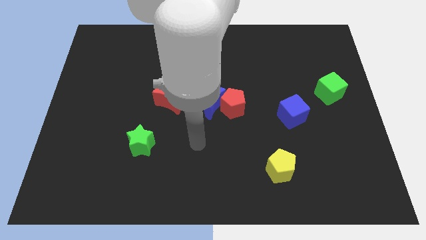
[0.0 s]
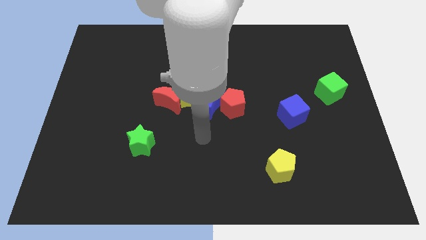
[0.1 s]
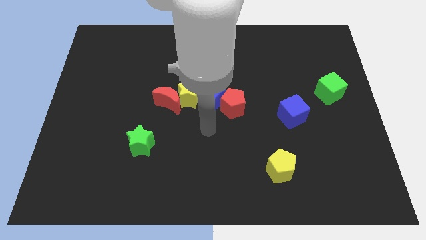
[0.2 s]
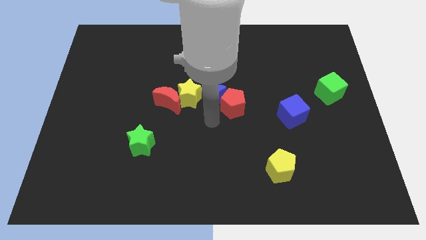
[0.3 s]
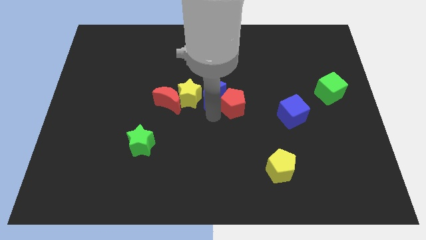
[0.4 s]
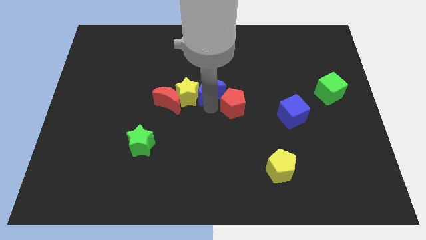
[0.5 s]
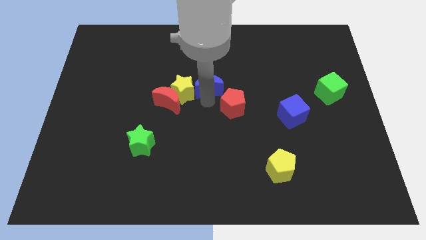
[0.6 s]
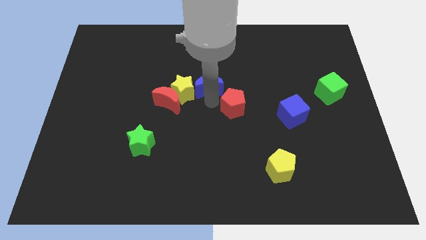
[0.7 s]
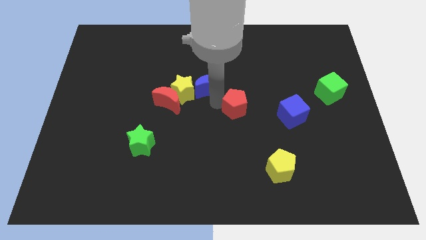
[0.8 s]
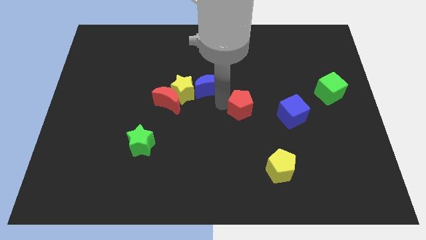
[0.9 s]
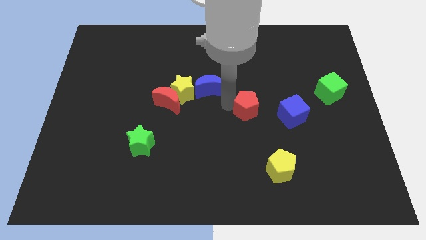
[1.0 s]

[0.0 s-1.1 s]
pull the red pentagon apart from the blue moon

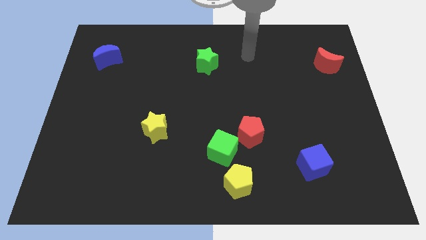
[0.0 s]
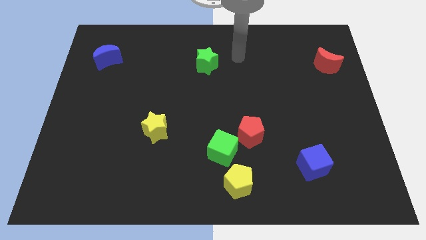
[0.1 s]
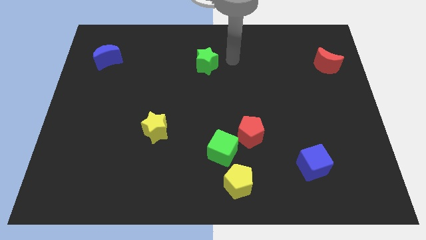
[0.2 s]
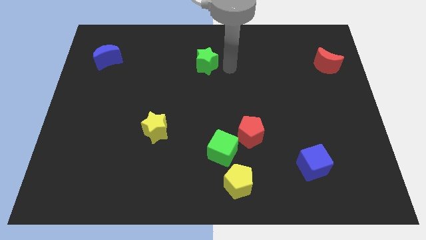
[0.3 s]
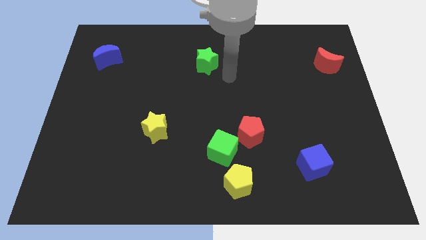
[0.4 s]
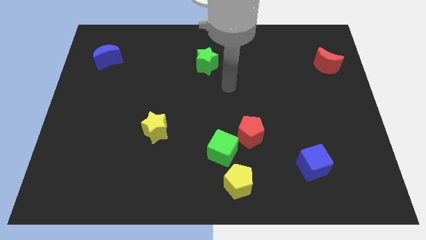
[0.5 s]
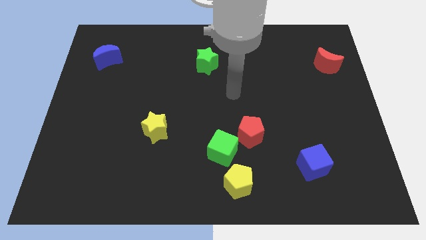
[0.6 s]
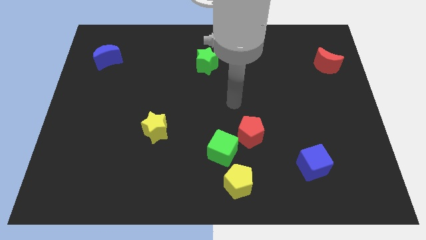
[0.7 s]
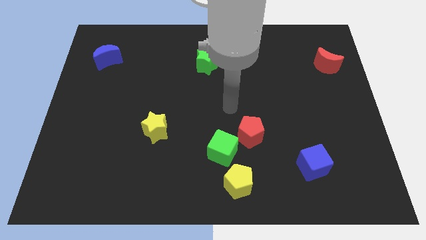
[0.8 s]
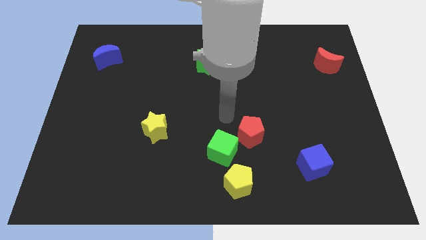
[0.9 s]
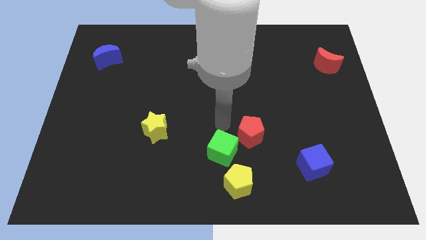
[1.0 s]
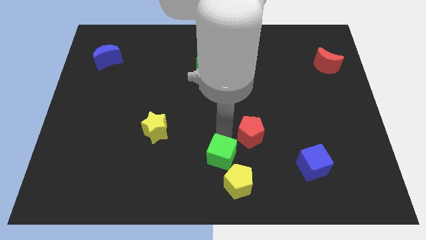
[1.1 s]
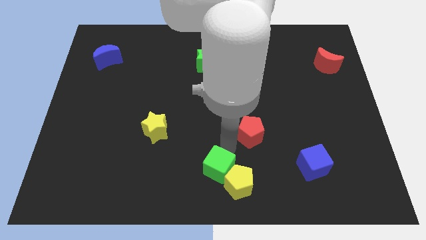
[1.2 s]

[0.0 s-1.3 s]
pull the red pentagon apart from the green cube

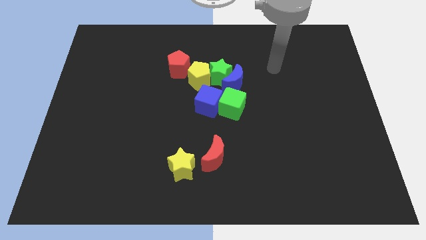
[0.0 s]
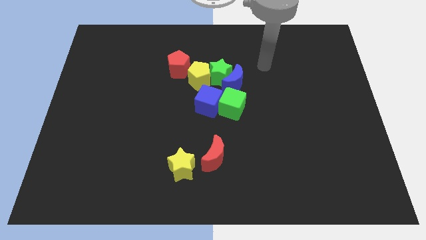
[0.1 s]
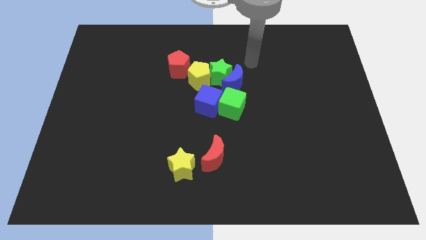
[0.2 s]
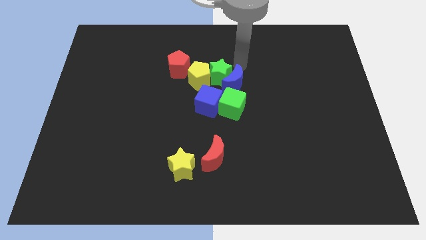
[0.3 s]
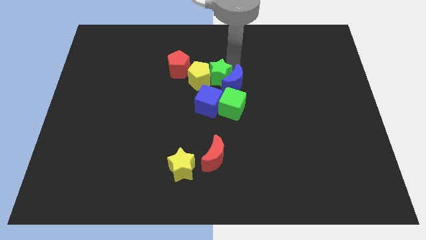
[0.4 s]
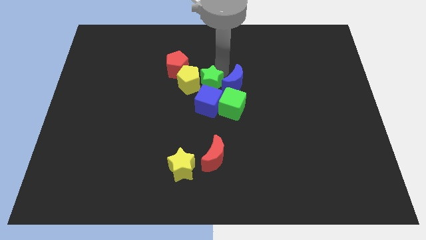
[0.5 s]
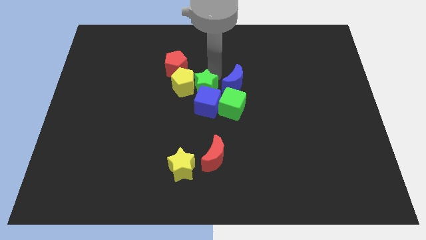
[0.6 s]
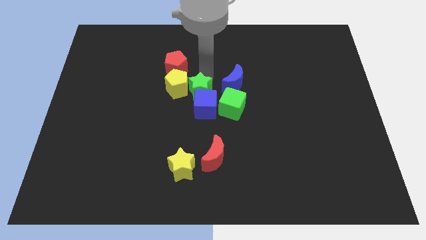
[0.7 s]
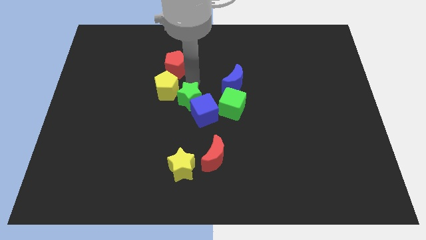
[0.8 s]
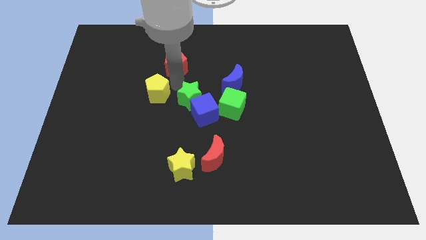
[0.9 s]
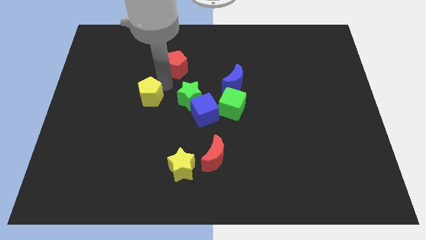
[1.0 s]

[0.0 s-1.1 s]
pull the red pentagon apart from the yellow pentagon

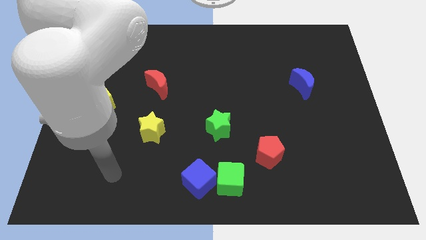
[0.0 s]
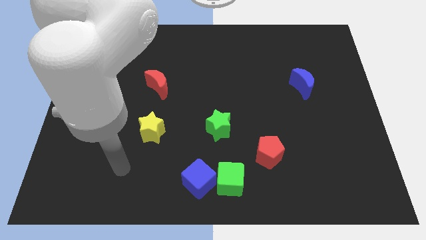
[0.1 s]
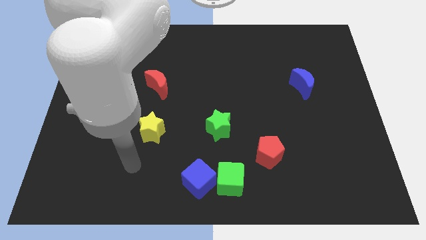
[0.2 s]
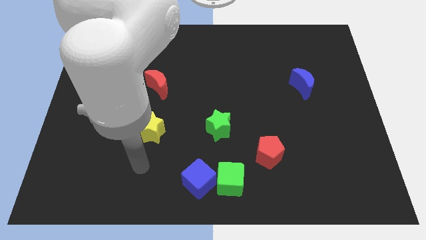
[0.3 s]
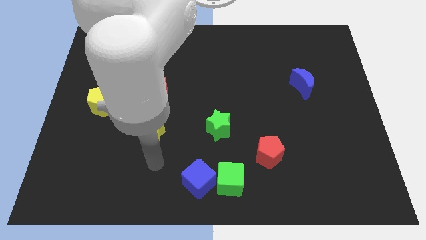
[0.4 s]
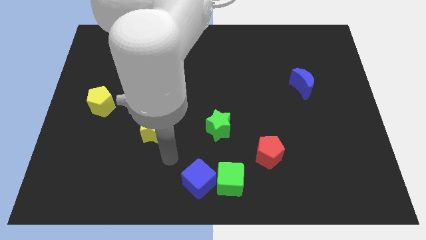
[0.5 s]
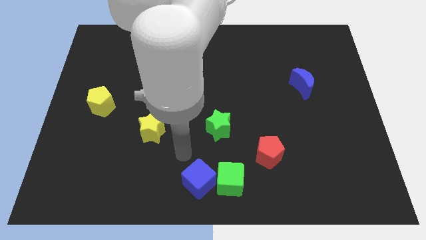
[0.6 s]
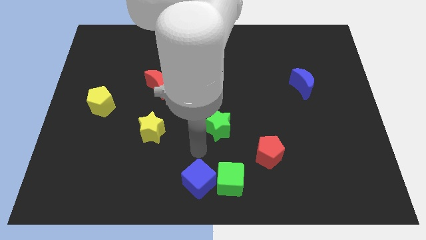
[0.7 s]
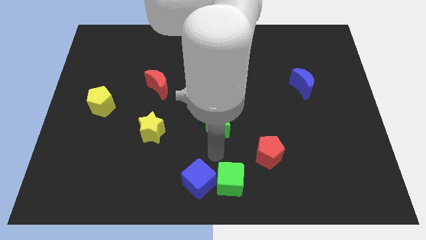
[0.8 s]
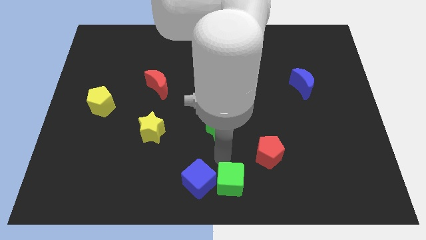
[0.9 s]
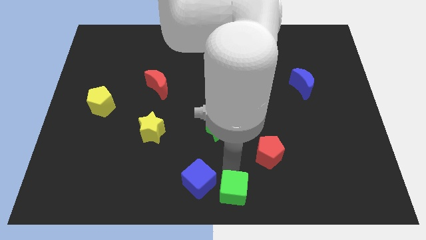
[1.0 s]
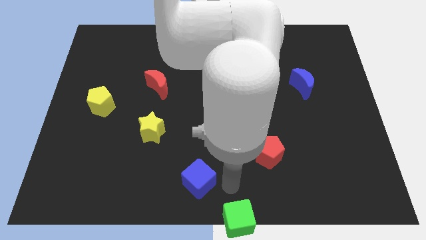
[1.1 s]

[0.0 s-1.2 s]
separate the blue cube from the green cube

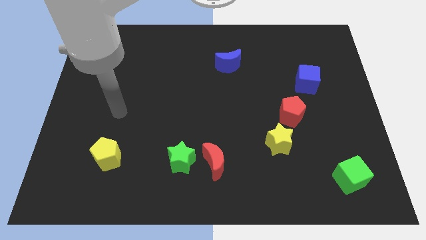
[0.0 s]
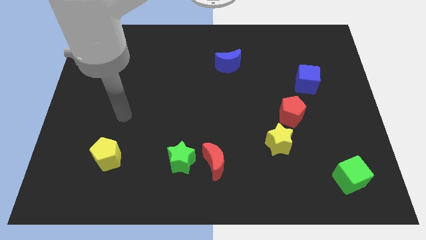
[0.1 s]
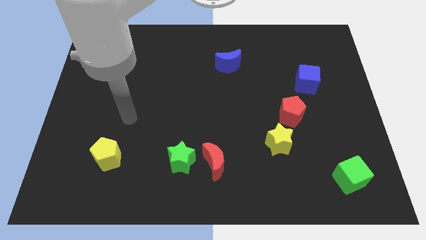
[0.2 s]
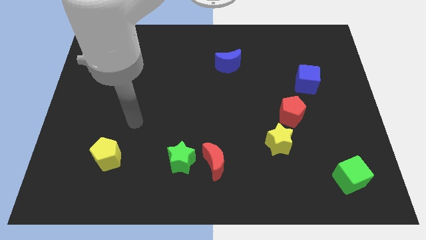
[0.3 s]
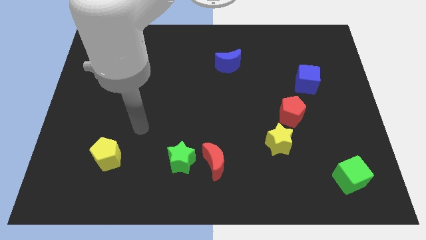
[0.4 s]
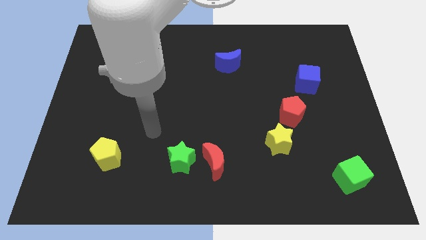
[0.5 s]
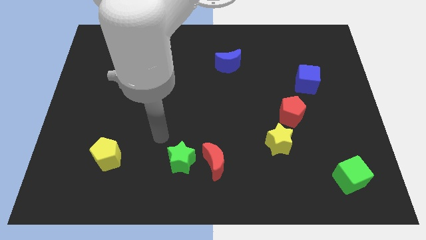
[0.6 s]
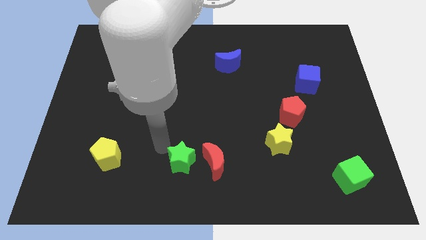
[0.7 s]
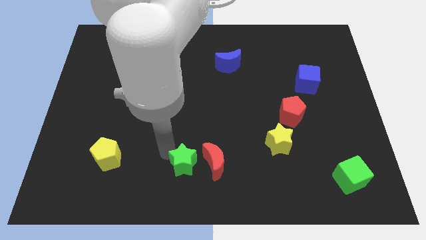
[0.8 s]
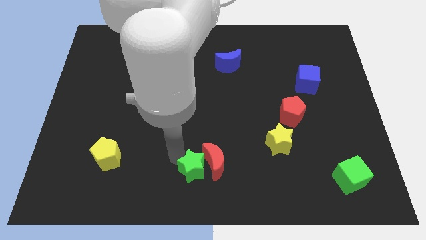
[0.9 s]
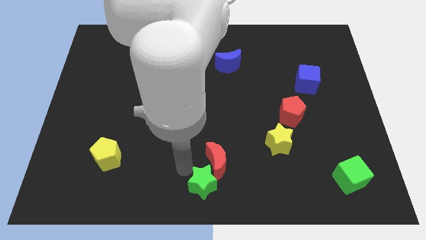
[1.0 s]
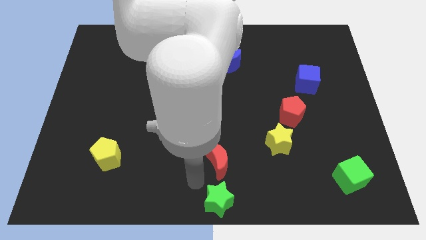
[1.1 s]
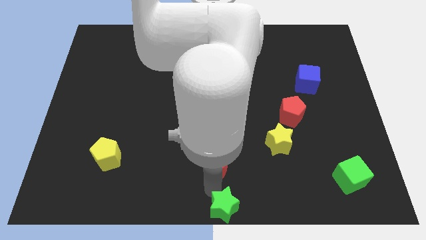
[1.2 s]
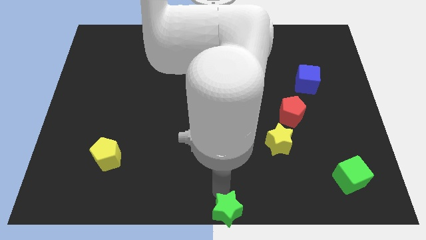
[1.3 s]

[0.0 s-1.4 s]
pull the red moon apart from the green star

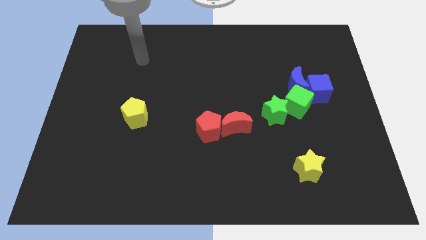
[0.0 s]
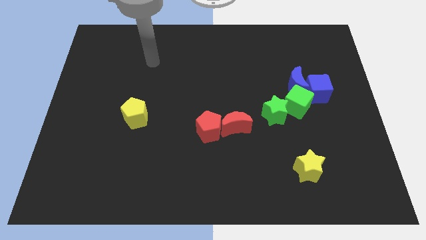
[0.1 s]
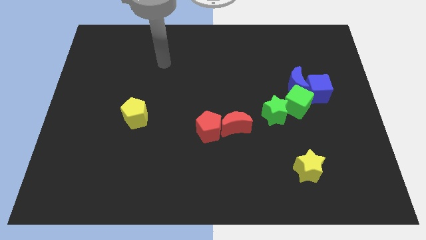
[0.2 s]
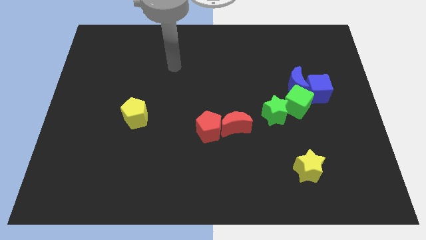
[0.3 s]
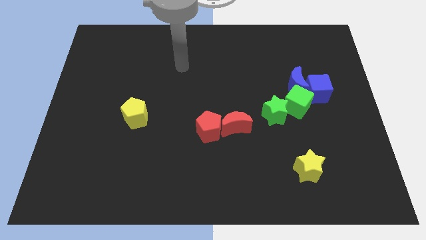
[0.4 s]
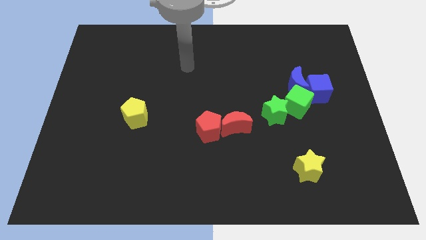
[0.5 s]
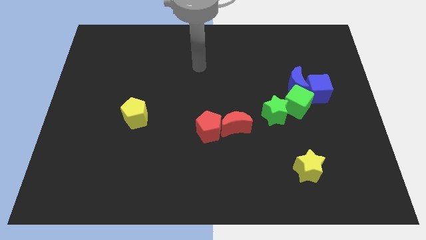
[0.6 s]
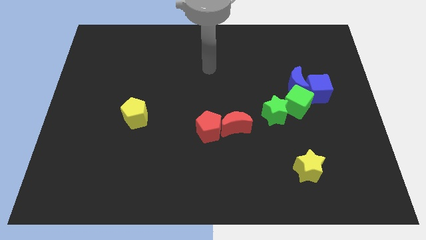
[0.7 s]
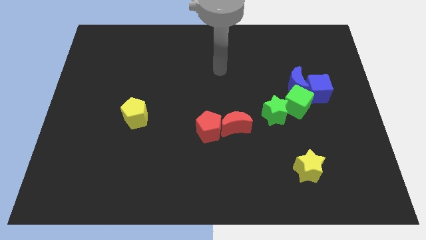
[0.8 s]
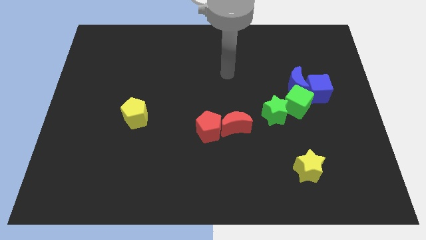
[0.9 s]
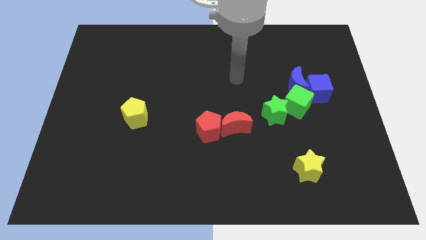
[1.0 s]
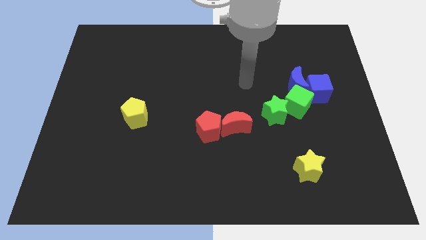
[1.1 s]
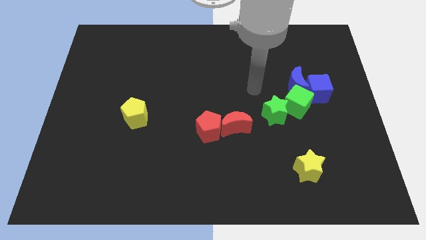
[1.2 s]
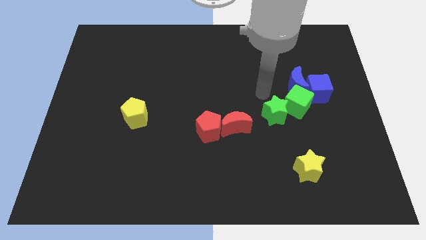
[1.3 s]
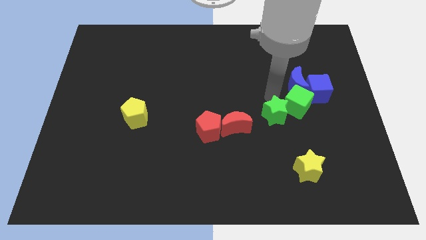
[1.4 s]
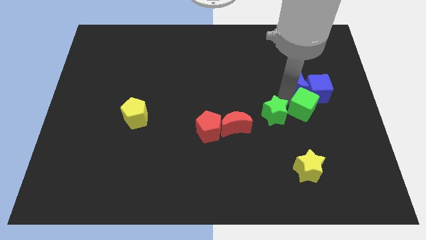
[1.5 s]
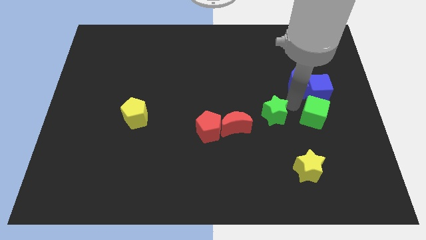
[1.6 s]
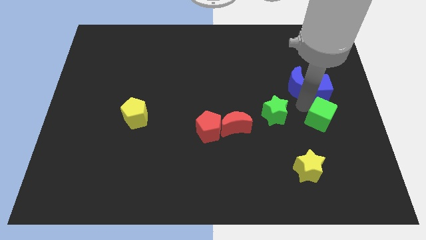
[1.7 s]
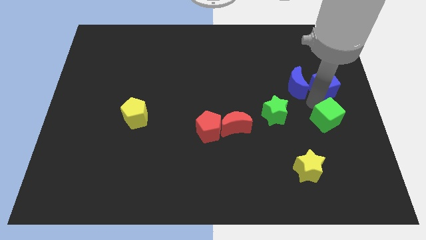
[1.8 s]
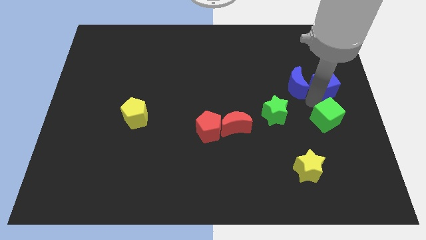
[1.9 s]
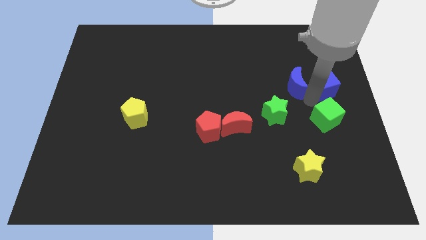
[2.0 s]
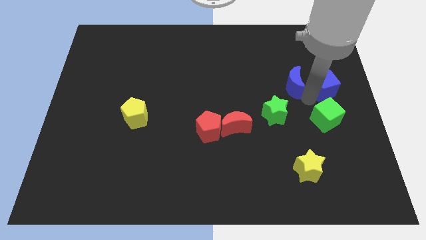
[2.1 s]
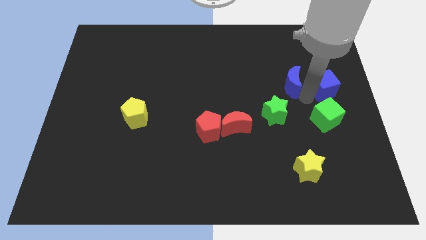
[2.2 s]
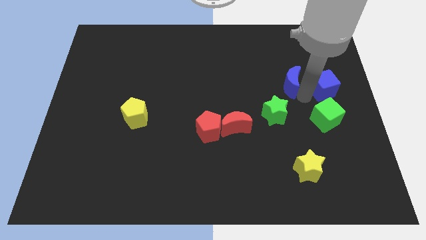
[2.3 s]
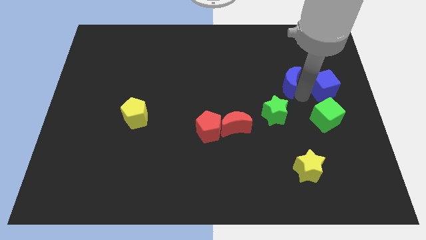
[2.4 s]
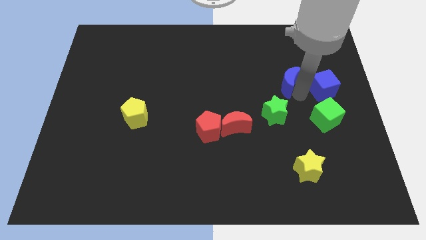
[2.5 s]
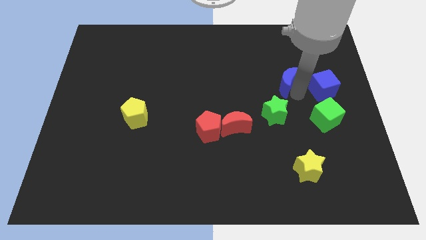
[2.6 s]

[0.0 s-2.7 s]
pull the blue moon apart from the blue cube and green cube

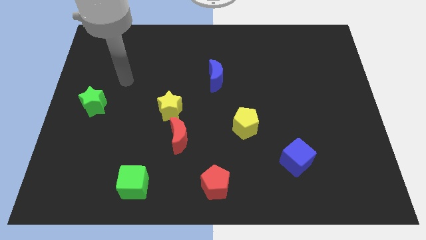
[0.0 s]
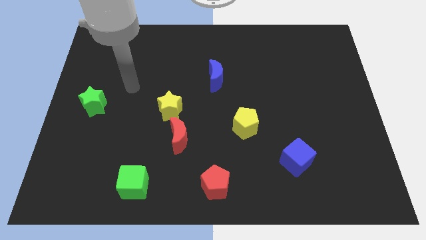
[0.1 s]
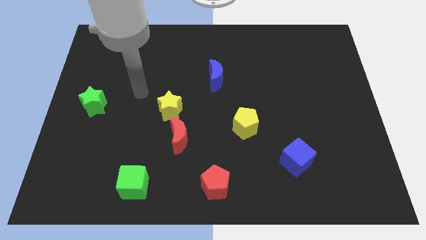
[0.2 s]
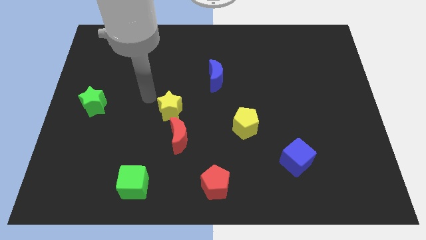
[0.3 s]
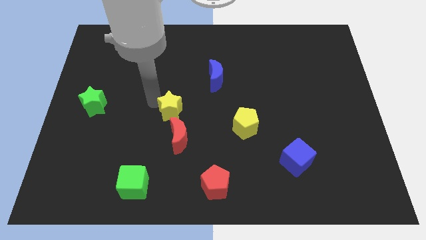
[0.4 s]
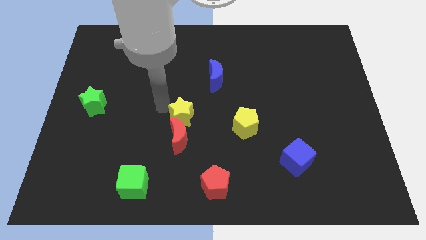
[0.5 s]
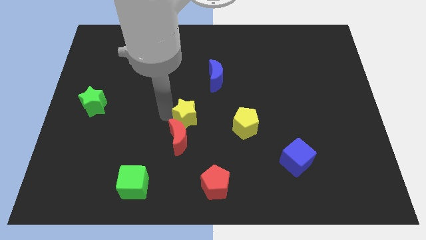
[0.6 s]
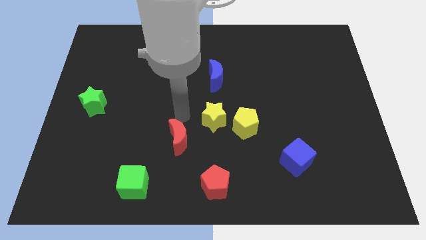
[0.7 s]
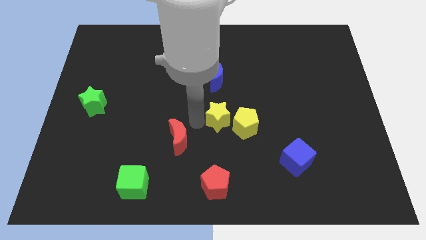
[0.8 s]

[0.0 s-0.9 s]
pull the red moon apart from the yellow star
